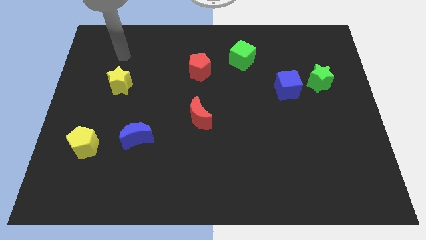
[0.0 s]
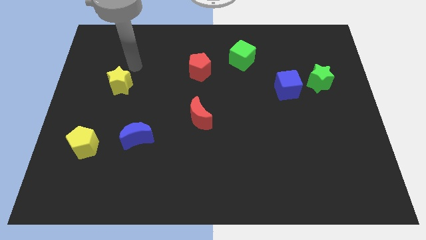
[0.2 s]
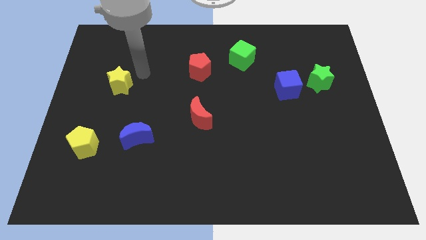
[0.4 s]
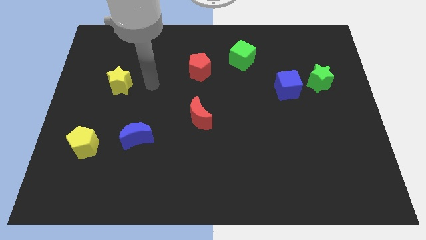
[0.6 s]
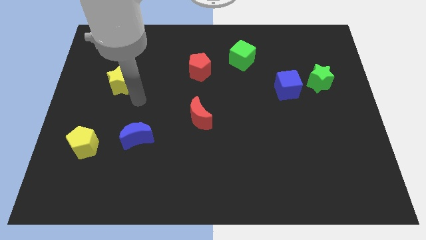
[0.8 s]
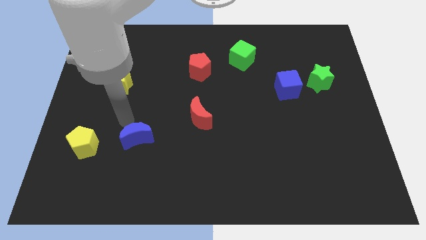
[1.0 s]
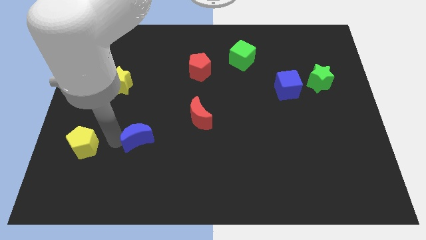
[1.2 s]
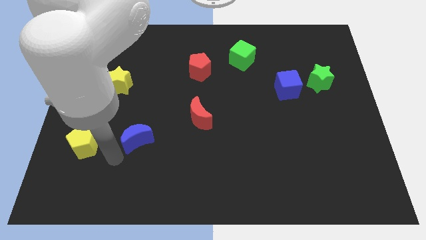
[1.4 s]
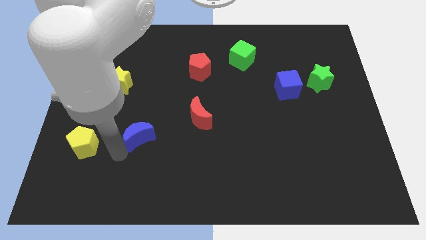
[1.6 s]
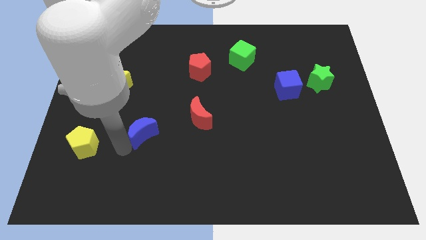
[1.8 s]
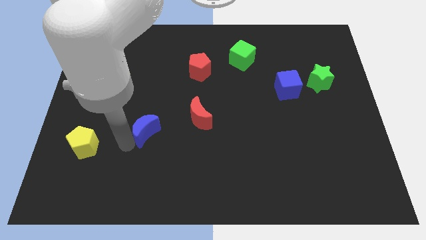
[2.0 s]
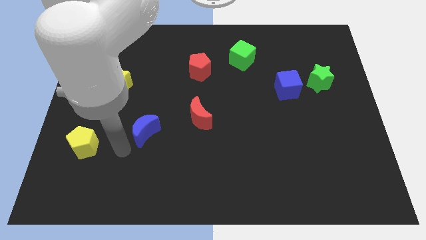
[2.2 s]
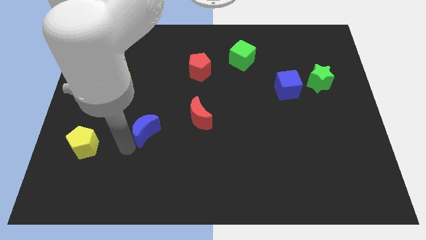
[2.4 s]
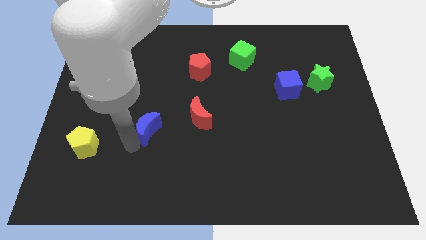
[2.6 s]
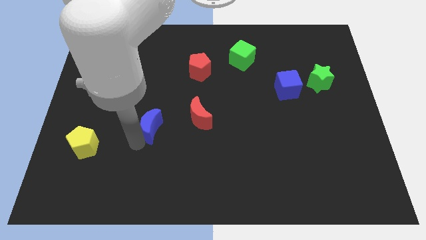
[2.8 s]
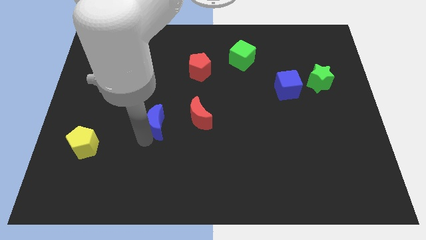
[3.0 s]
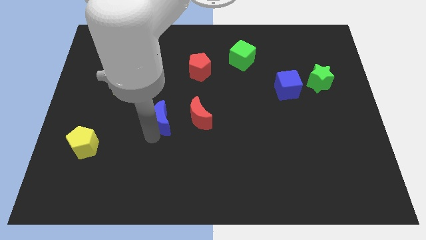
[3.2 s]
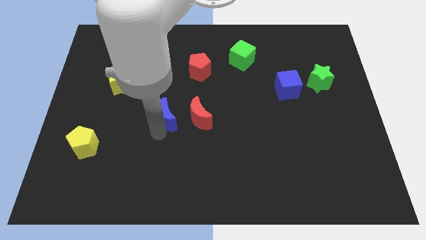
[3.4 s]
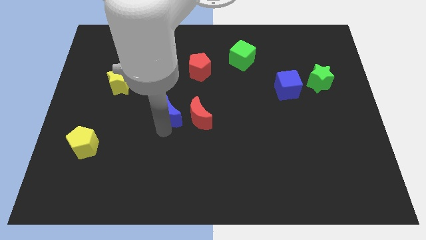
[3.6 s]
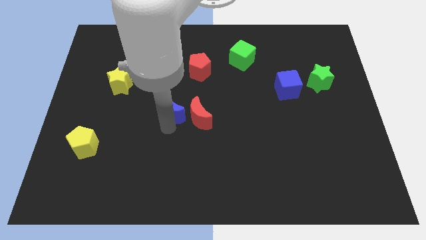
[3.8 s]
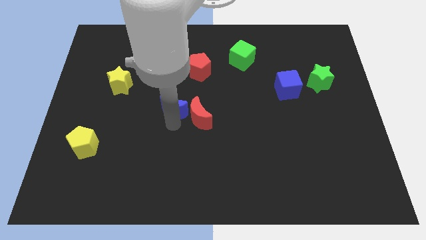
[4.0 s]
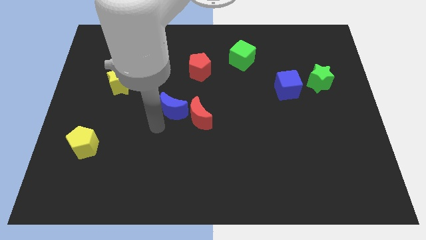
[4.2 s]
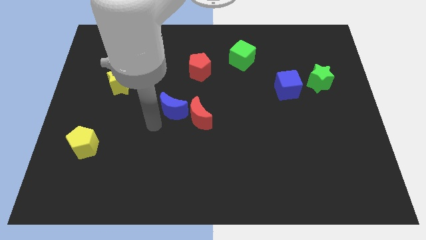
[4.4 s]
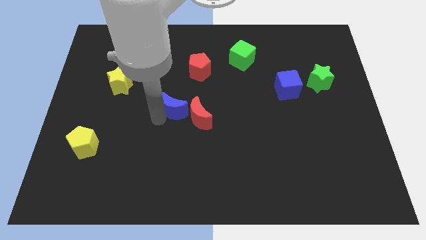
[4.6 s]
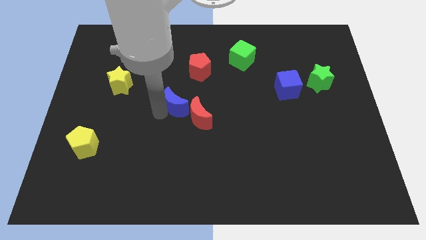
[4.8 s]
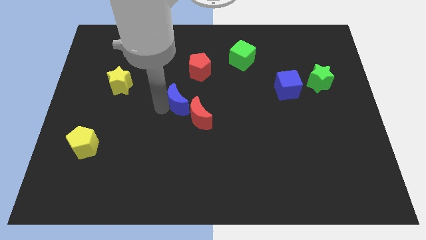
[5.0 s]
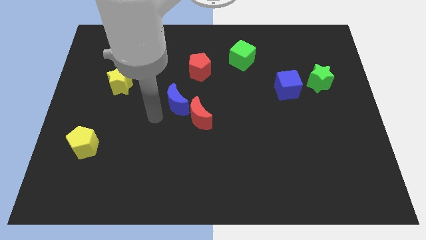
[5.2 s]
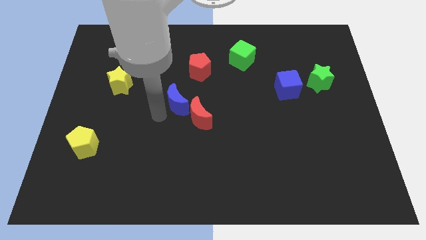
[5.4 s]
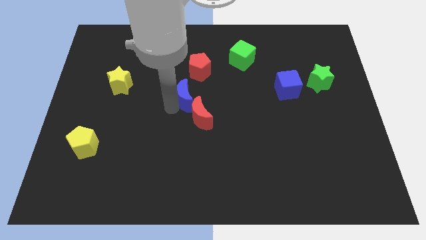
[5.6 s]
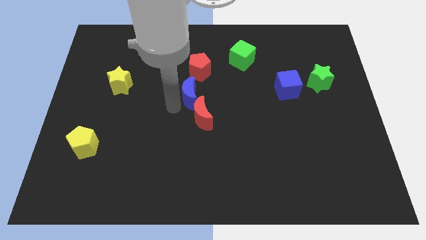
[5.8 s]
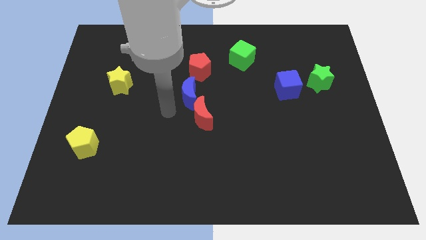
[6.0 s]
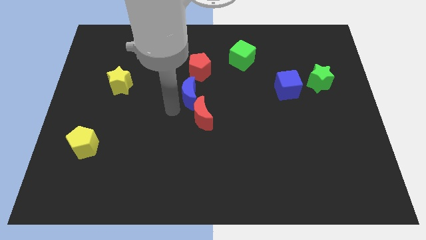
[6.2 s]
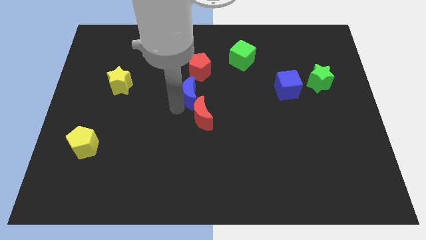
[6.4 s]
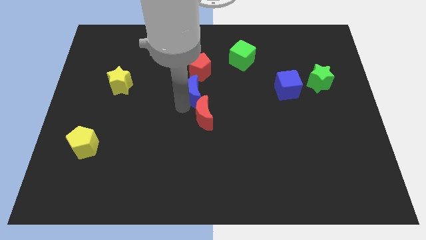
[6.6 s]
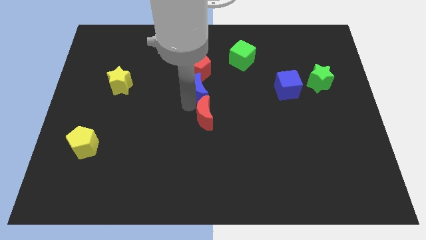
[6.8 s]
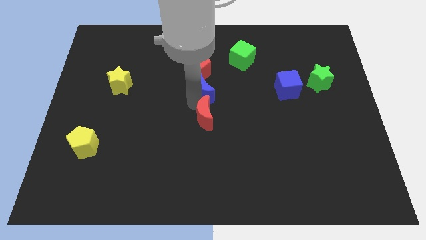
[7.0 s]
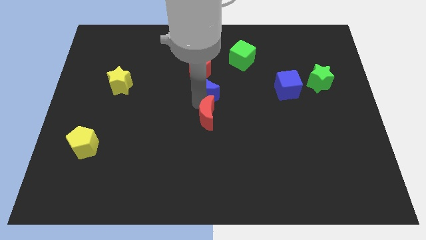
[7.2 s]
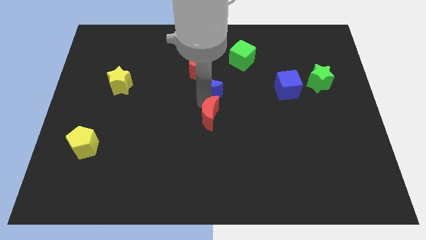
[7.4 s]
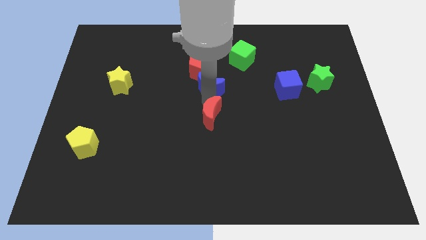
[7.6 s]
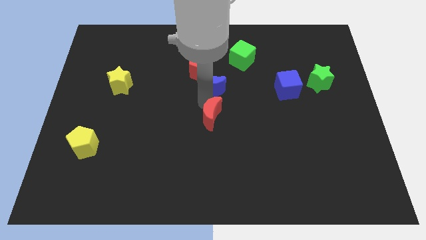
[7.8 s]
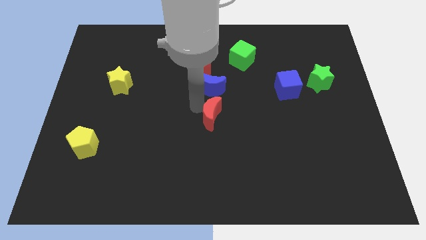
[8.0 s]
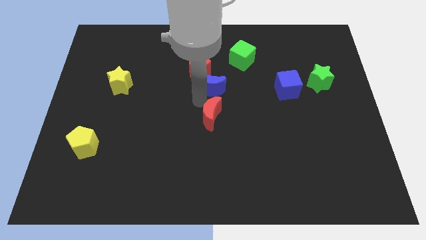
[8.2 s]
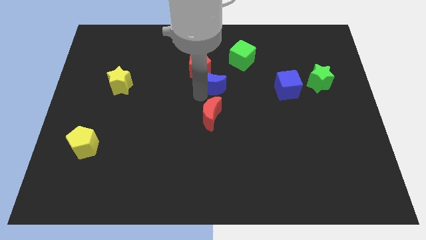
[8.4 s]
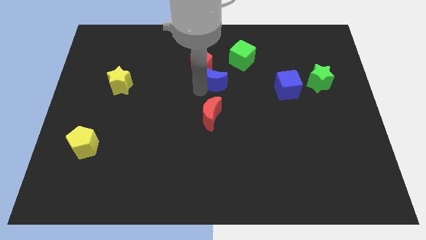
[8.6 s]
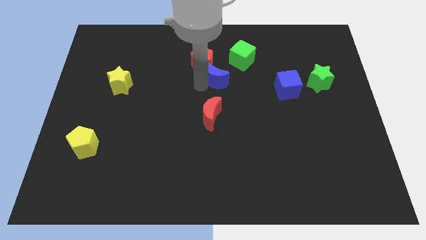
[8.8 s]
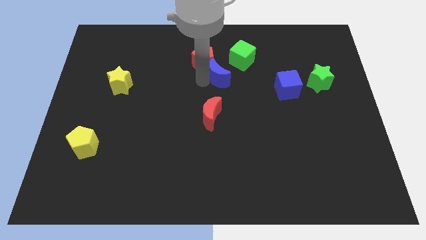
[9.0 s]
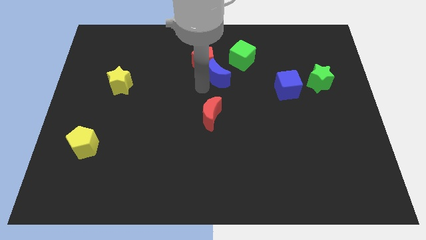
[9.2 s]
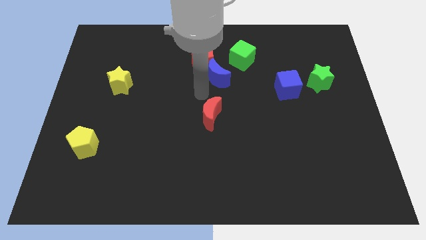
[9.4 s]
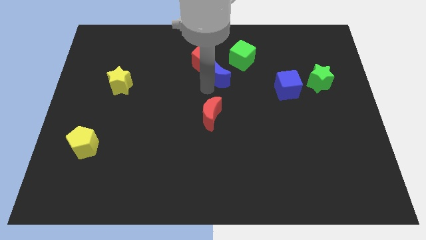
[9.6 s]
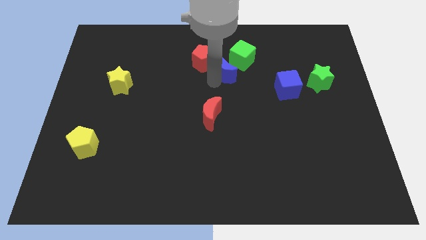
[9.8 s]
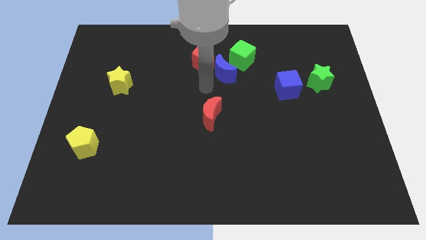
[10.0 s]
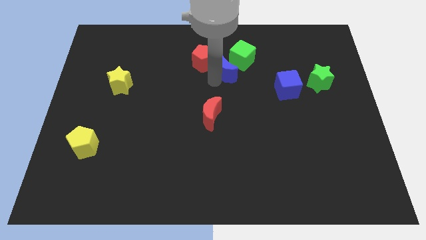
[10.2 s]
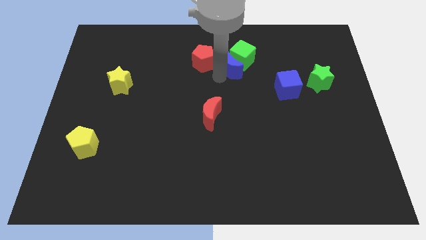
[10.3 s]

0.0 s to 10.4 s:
move the blue moon to the green cube

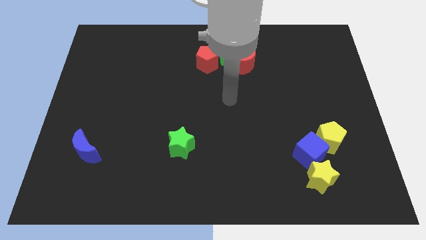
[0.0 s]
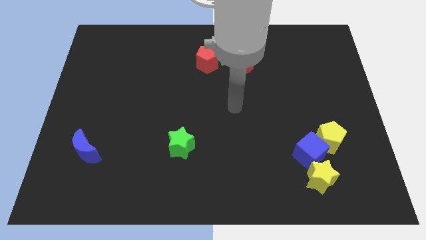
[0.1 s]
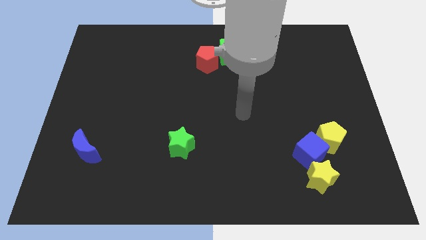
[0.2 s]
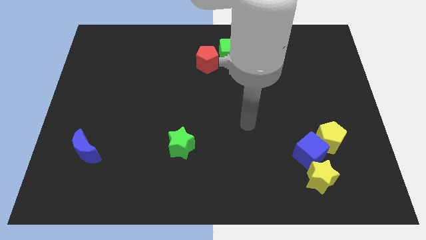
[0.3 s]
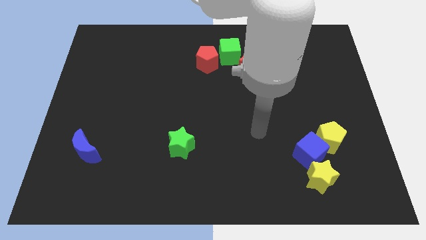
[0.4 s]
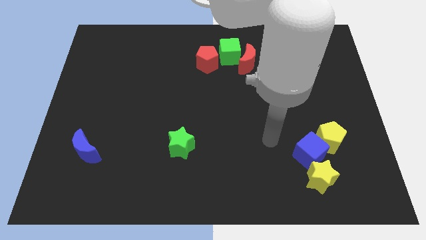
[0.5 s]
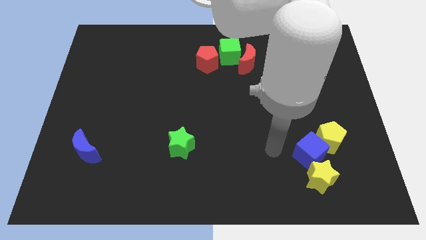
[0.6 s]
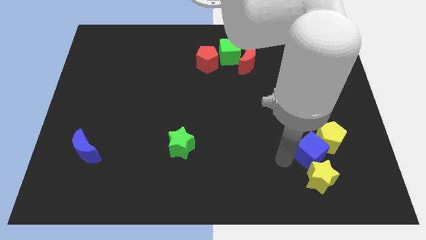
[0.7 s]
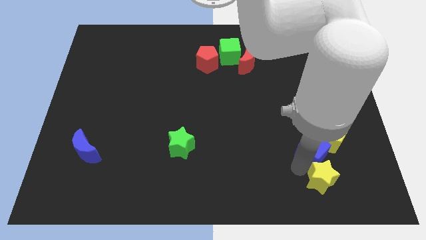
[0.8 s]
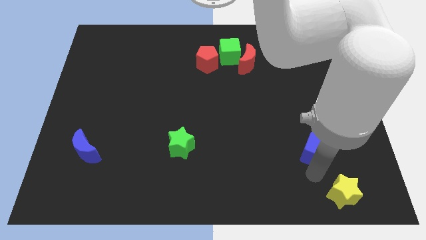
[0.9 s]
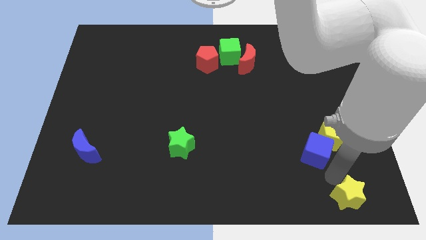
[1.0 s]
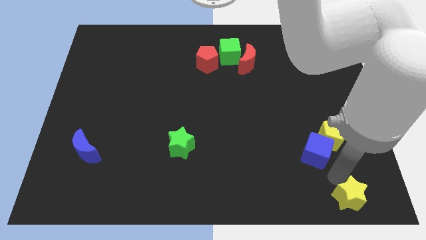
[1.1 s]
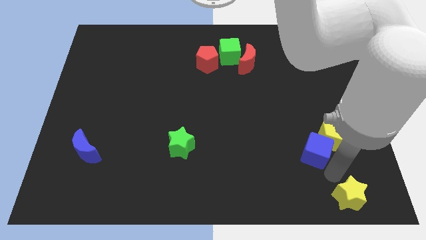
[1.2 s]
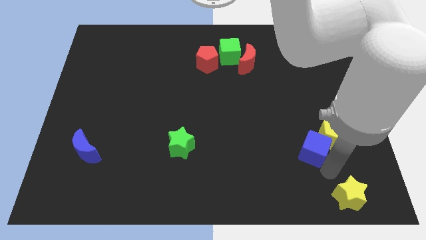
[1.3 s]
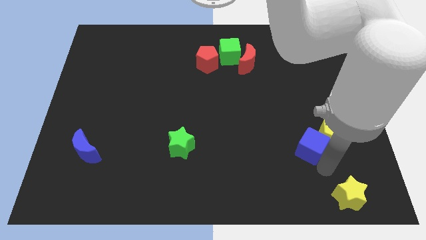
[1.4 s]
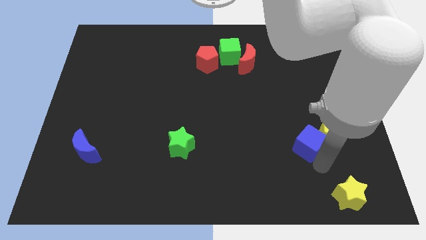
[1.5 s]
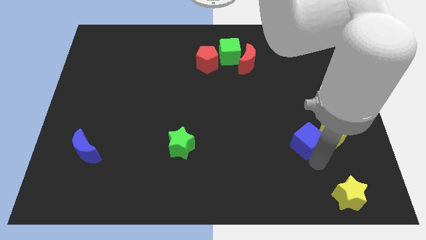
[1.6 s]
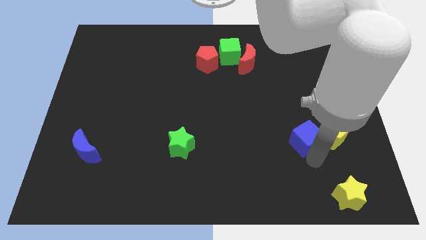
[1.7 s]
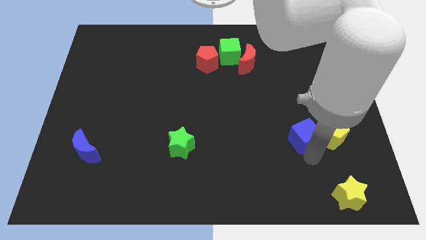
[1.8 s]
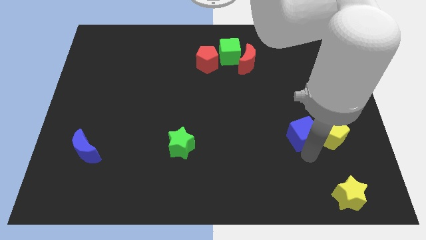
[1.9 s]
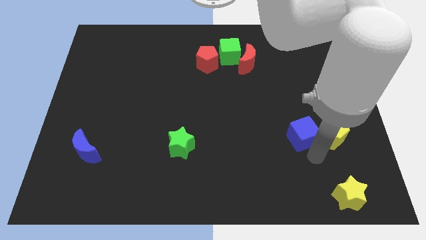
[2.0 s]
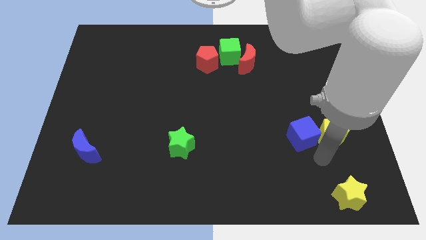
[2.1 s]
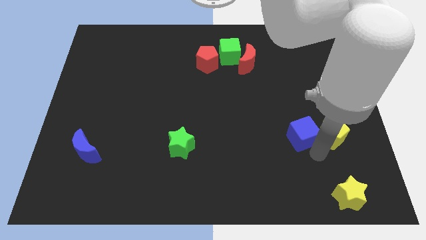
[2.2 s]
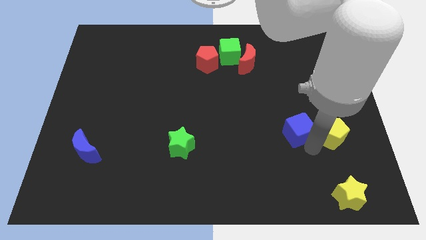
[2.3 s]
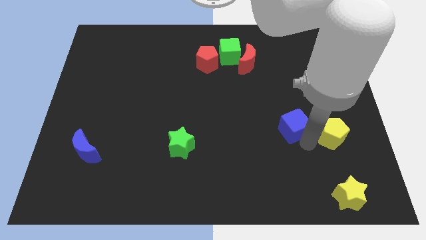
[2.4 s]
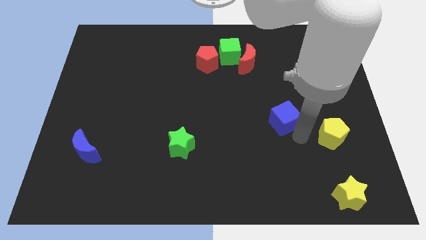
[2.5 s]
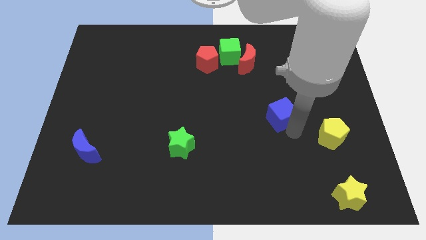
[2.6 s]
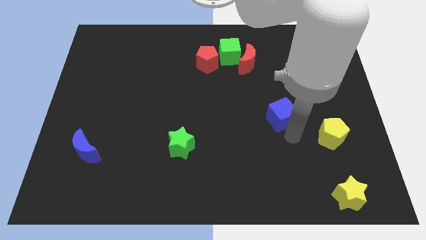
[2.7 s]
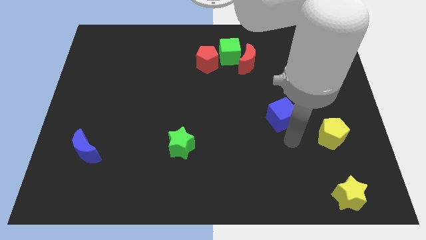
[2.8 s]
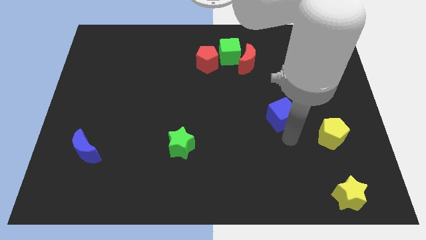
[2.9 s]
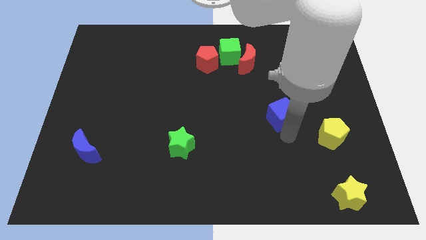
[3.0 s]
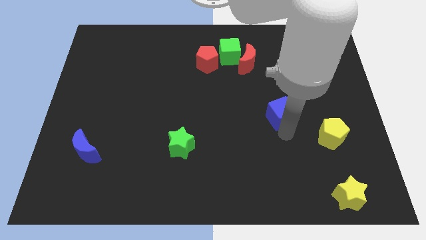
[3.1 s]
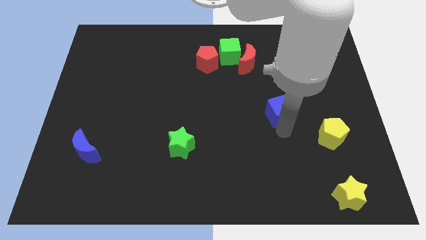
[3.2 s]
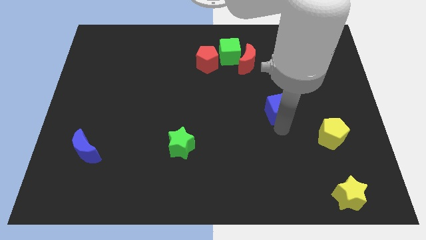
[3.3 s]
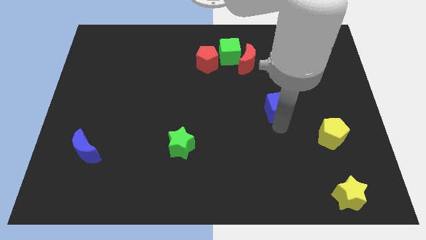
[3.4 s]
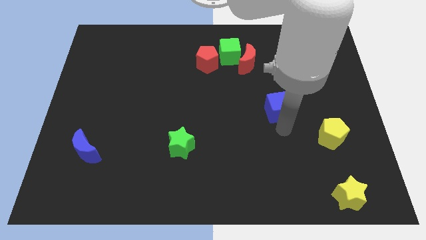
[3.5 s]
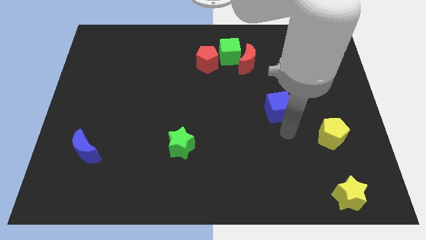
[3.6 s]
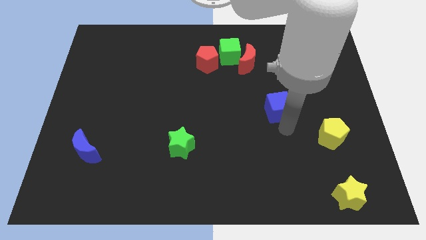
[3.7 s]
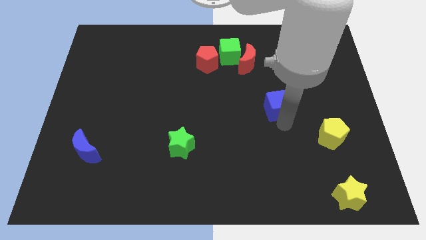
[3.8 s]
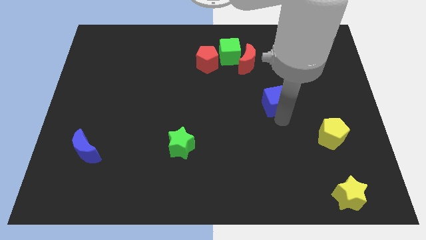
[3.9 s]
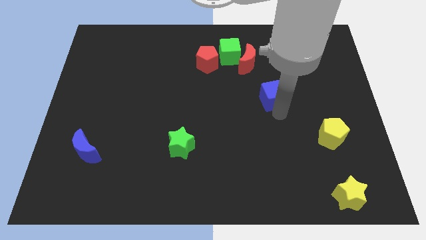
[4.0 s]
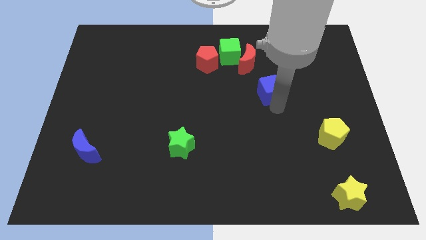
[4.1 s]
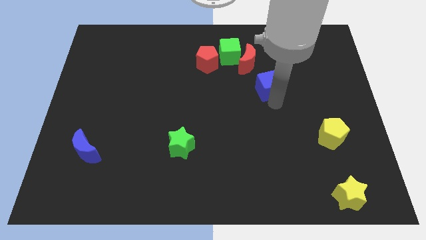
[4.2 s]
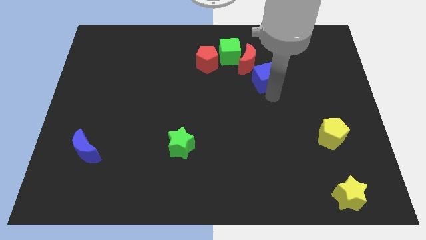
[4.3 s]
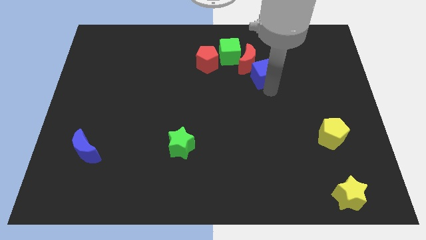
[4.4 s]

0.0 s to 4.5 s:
move the blue cube towards the red moon
